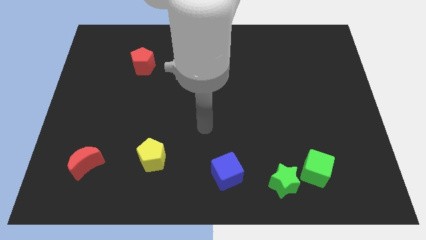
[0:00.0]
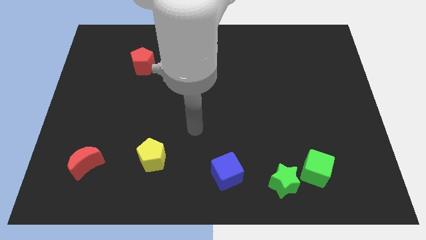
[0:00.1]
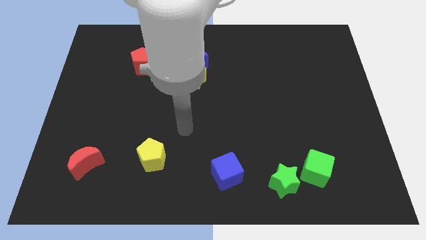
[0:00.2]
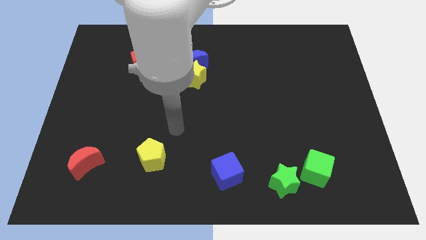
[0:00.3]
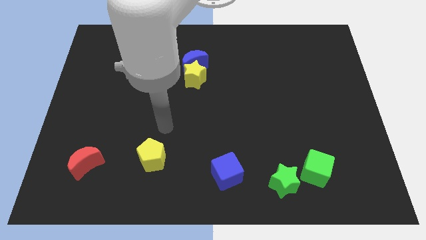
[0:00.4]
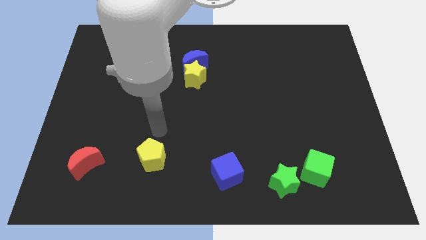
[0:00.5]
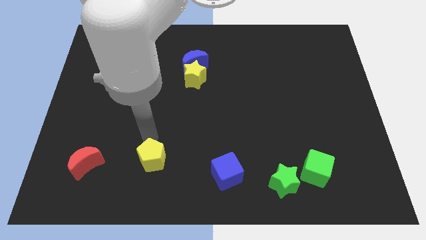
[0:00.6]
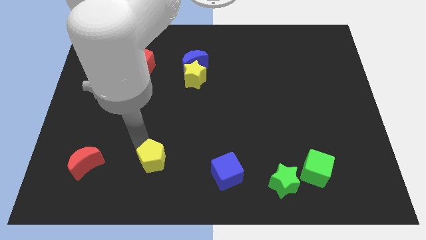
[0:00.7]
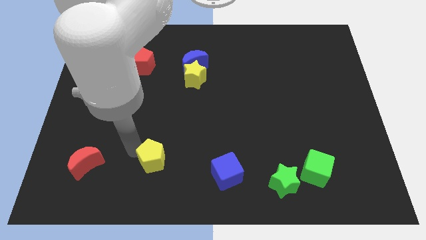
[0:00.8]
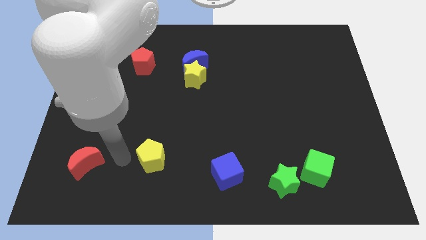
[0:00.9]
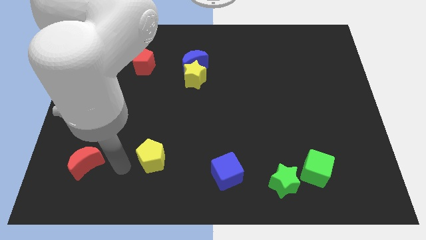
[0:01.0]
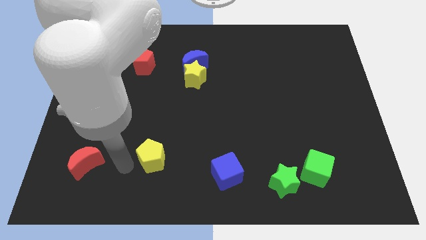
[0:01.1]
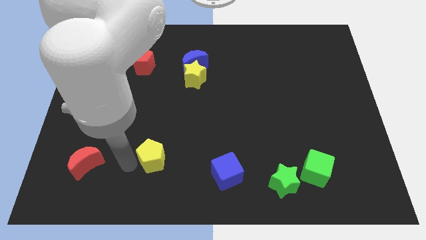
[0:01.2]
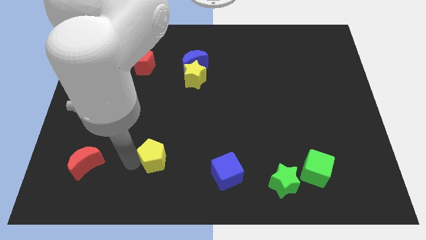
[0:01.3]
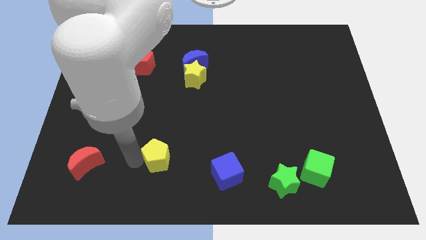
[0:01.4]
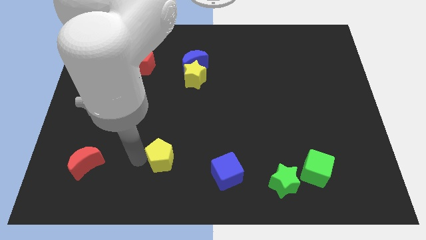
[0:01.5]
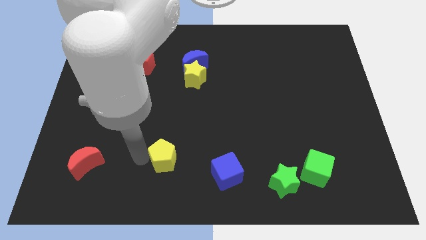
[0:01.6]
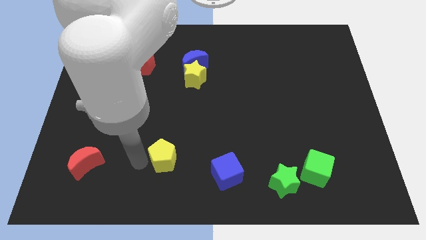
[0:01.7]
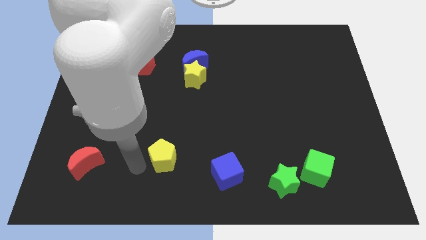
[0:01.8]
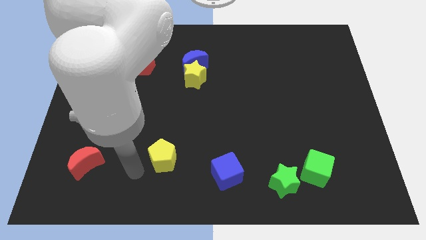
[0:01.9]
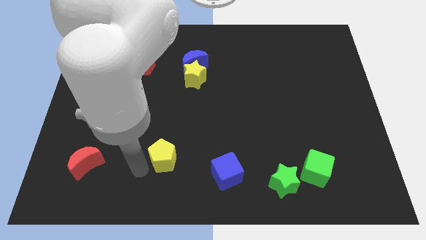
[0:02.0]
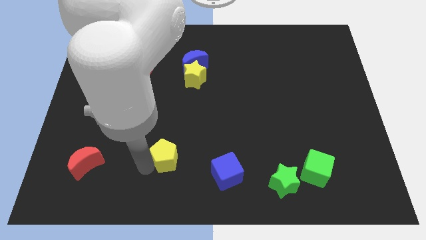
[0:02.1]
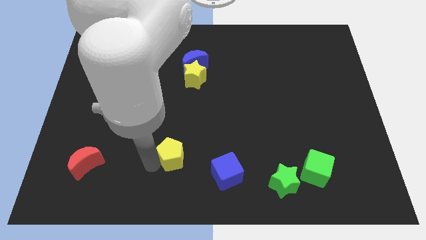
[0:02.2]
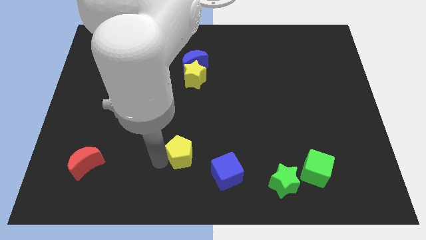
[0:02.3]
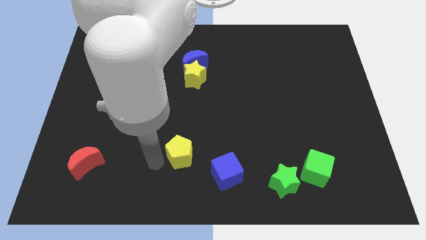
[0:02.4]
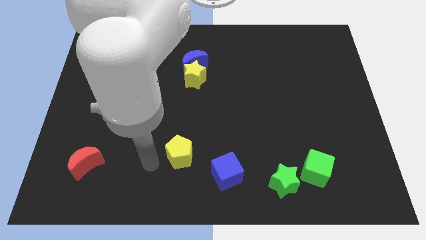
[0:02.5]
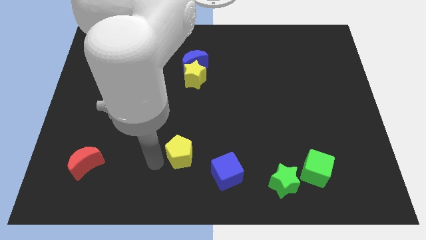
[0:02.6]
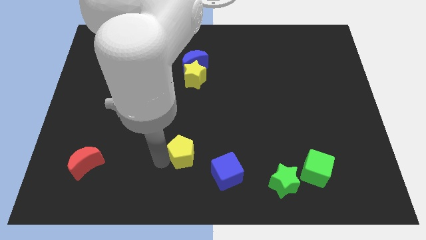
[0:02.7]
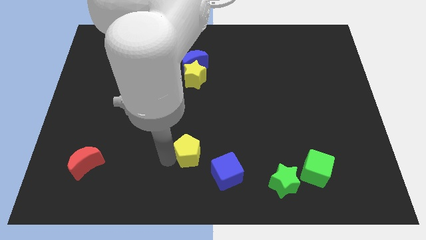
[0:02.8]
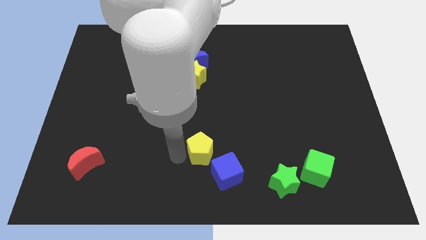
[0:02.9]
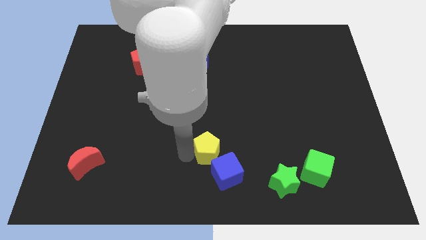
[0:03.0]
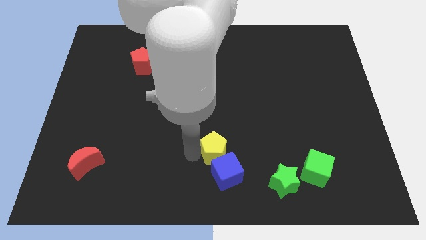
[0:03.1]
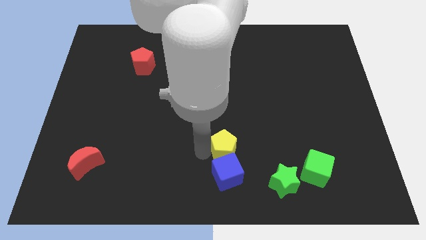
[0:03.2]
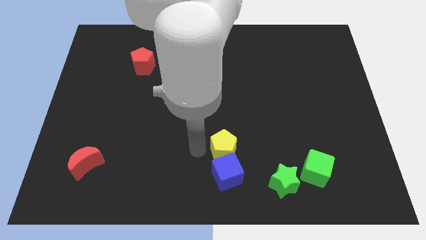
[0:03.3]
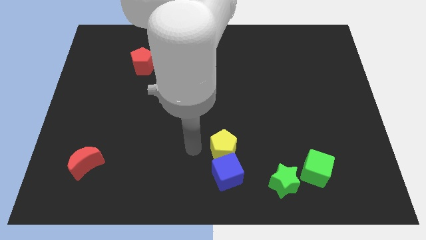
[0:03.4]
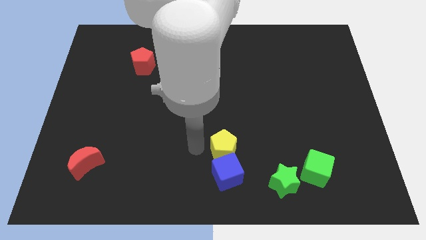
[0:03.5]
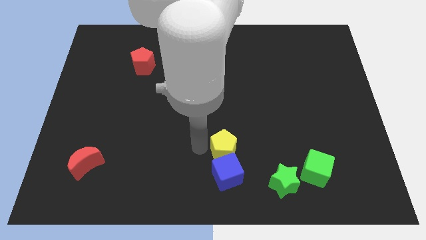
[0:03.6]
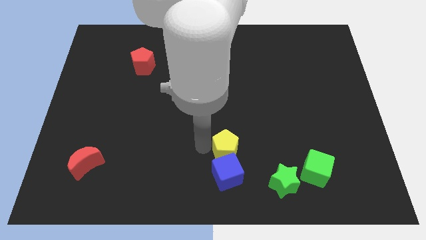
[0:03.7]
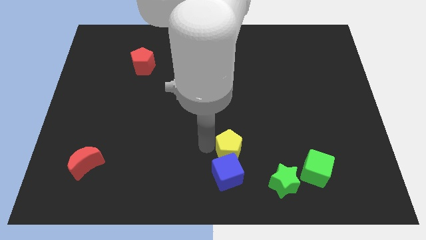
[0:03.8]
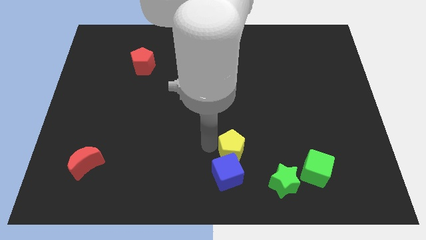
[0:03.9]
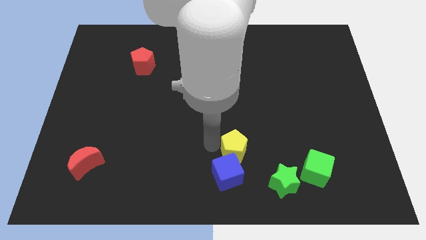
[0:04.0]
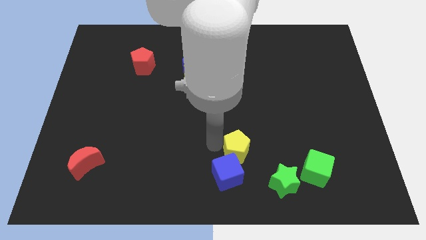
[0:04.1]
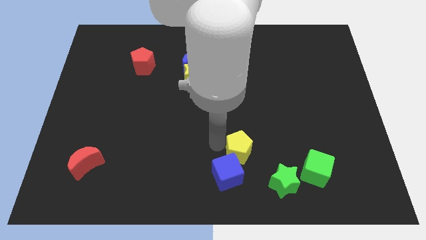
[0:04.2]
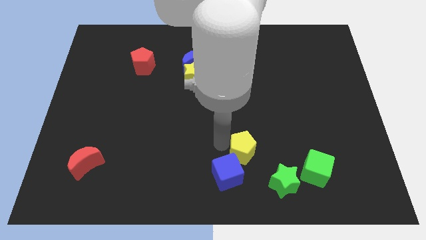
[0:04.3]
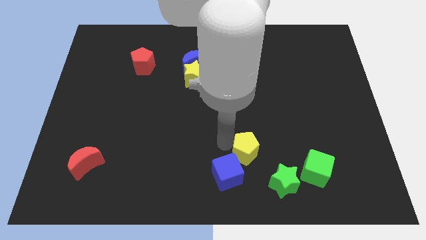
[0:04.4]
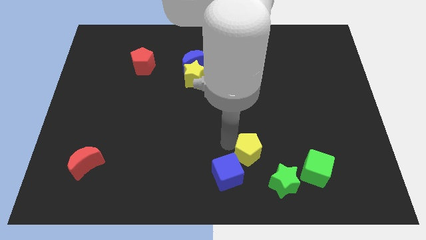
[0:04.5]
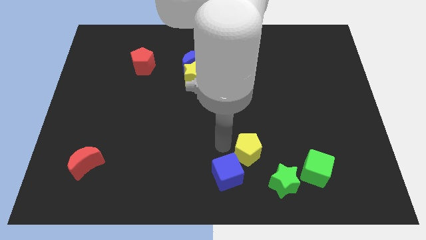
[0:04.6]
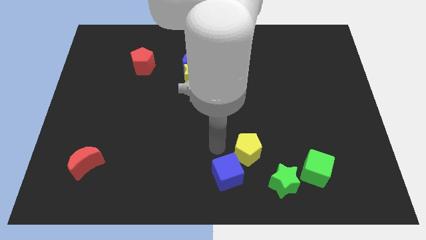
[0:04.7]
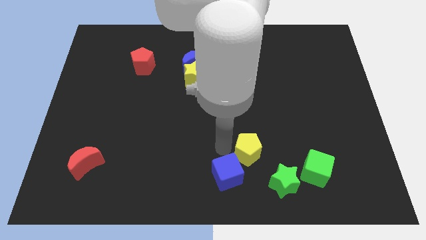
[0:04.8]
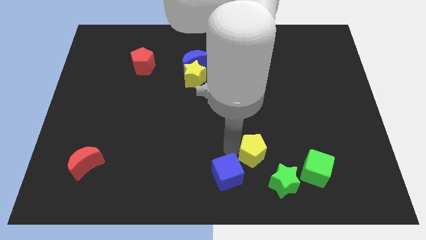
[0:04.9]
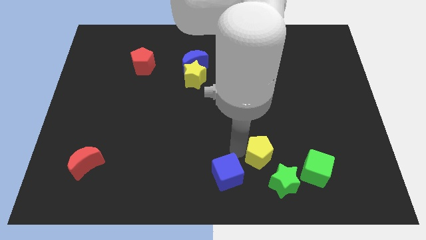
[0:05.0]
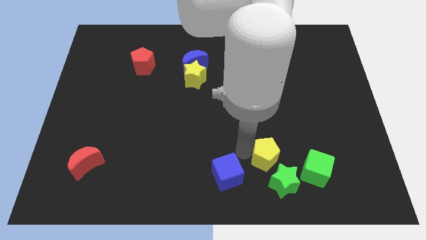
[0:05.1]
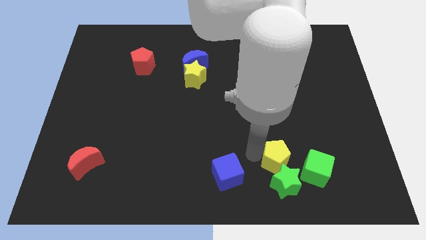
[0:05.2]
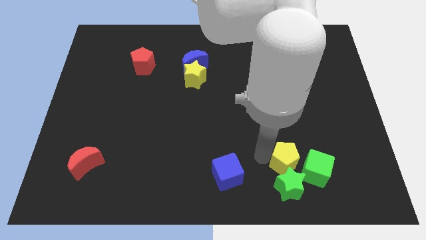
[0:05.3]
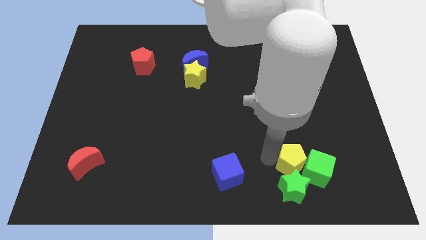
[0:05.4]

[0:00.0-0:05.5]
put the yellow pentagon towards the green cube

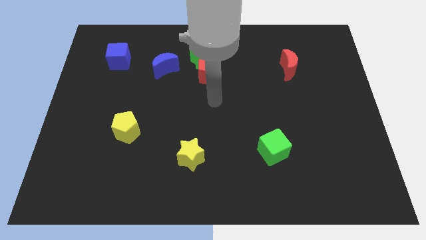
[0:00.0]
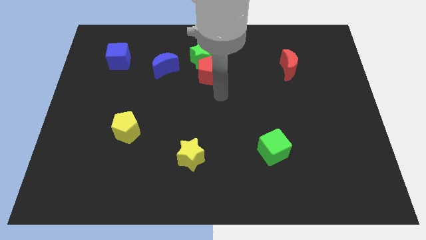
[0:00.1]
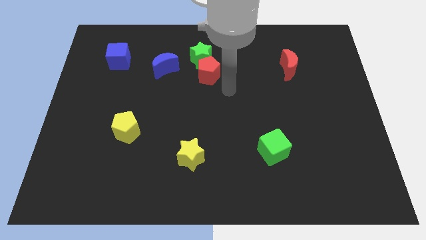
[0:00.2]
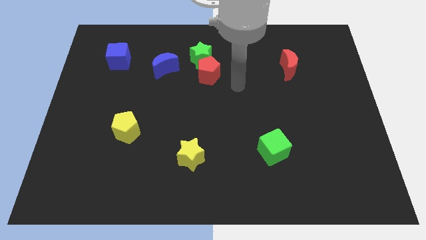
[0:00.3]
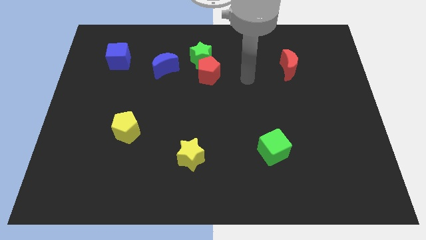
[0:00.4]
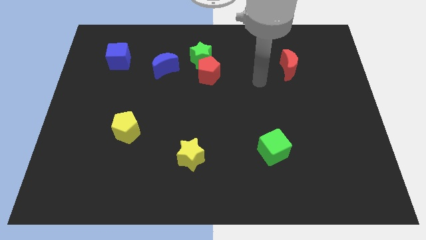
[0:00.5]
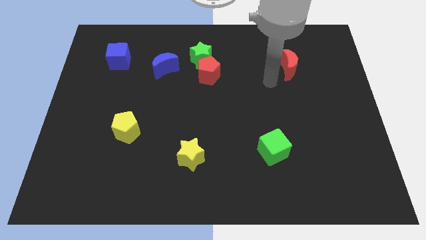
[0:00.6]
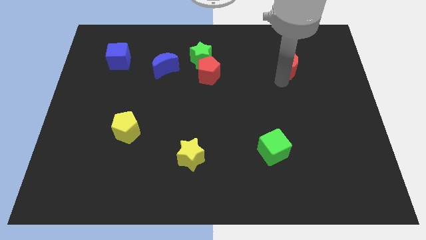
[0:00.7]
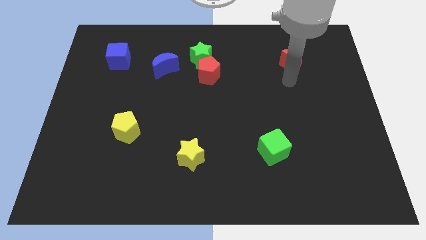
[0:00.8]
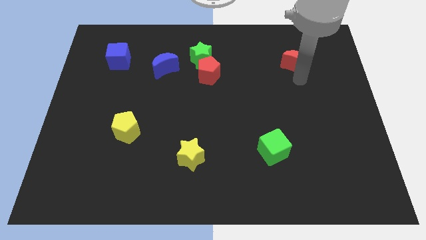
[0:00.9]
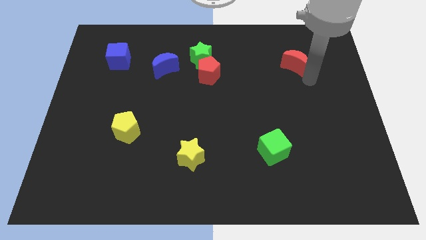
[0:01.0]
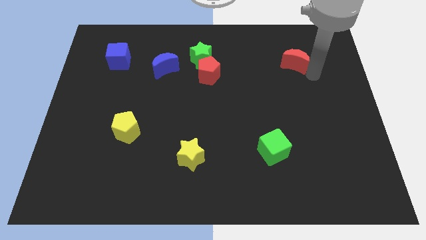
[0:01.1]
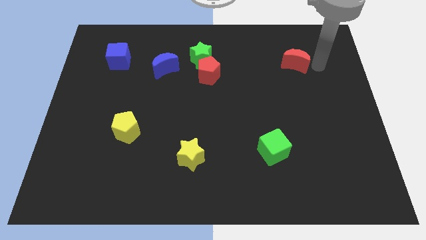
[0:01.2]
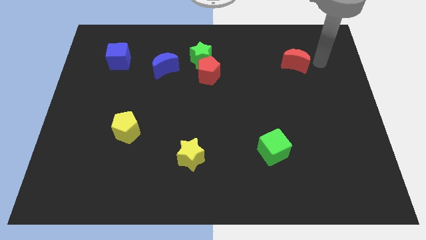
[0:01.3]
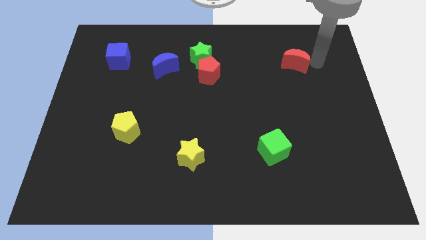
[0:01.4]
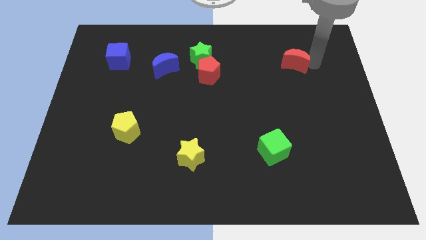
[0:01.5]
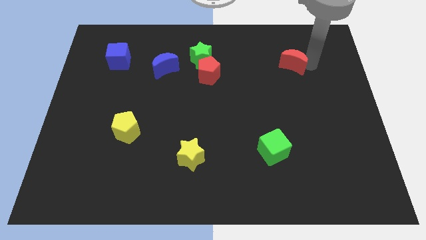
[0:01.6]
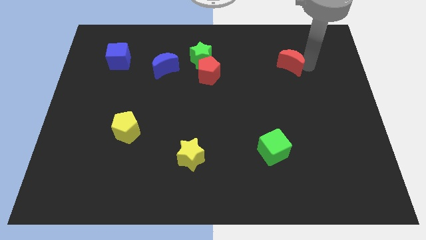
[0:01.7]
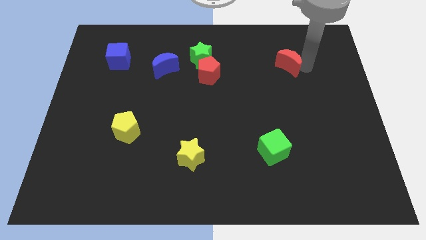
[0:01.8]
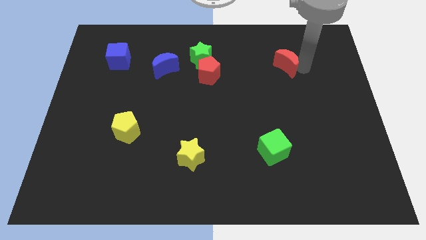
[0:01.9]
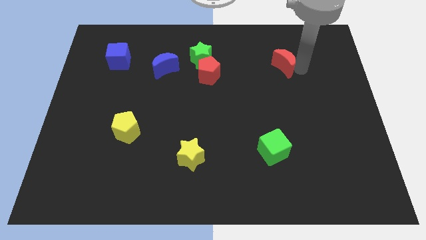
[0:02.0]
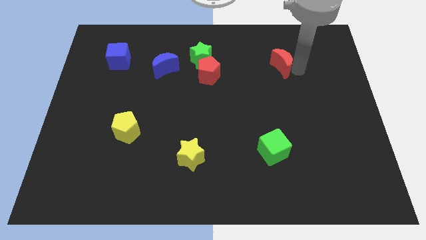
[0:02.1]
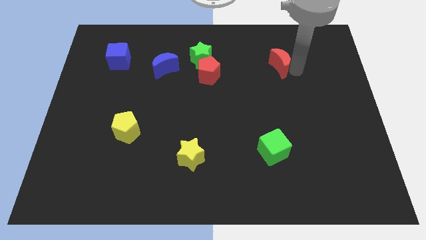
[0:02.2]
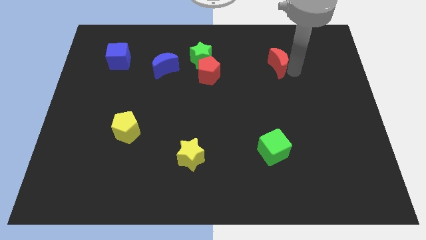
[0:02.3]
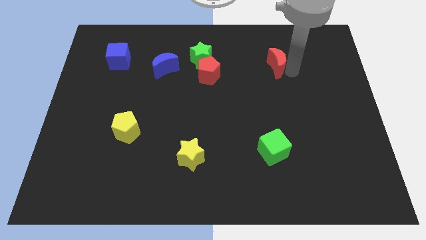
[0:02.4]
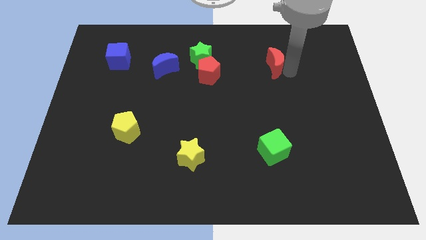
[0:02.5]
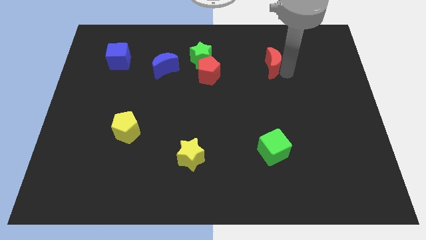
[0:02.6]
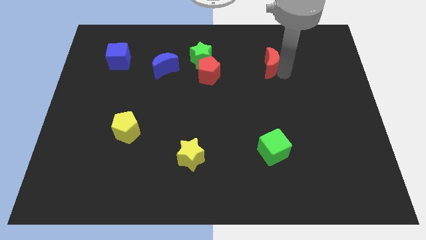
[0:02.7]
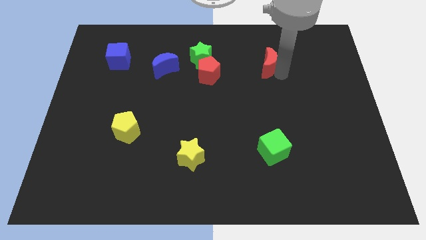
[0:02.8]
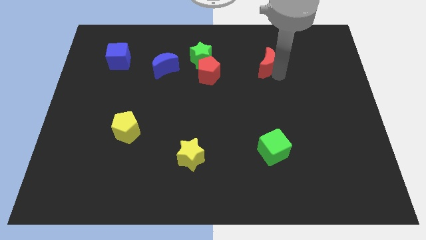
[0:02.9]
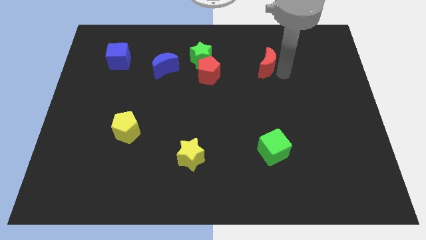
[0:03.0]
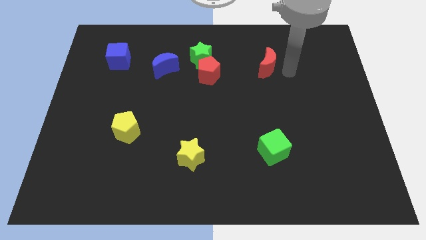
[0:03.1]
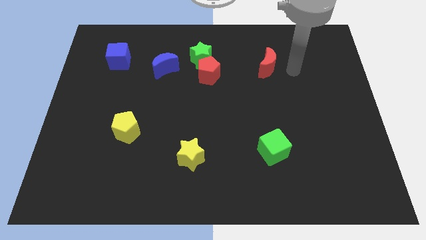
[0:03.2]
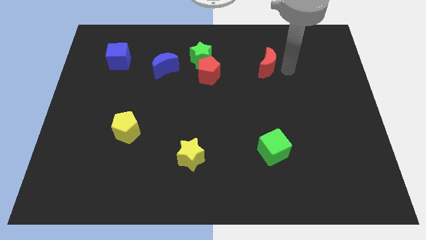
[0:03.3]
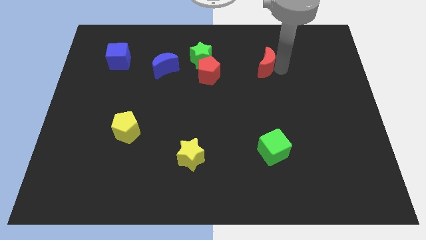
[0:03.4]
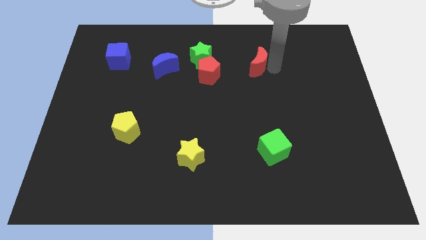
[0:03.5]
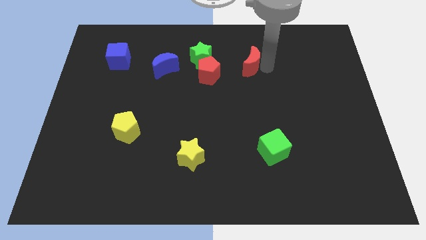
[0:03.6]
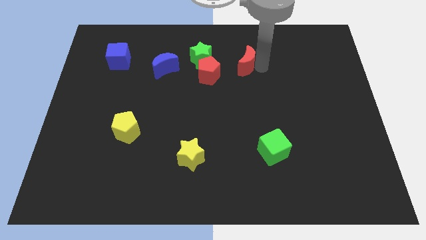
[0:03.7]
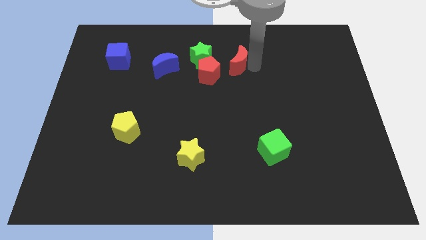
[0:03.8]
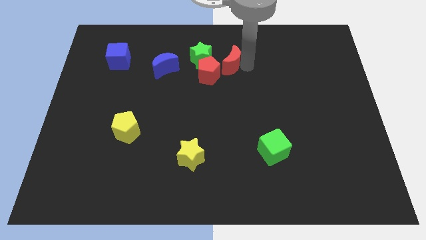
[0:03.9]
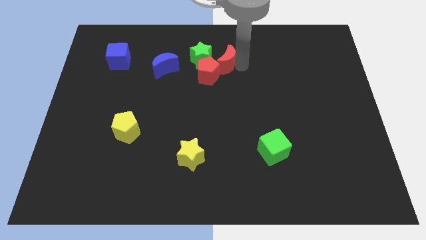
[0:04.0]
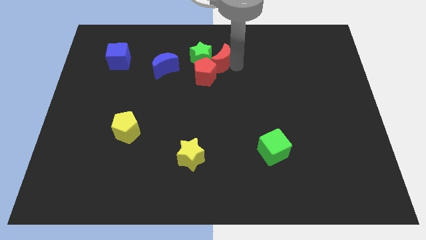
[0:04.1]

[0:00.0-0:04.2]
slide the red moon to the green star
